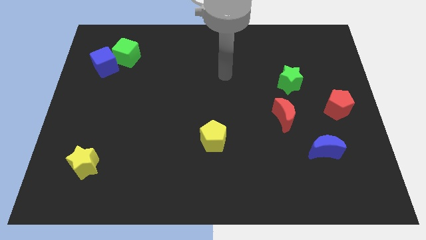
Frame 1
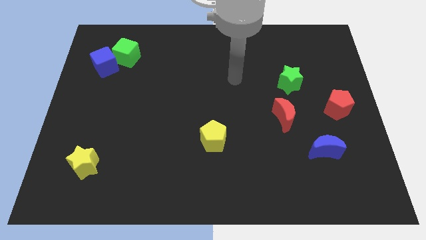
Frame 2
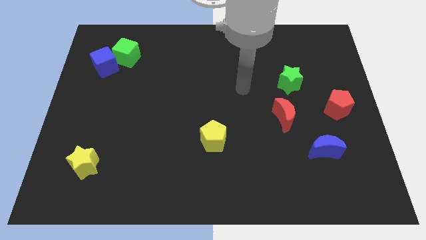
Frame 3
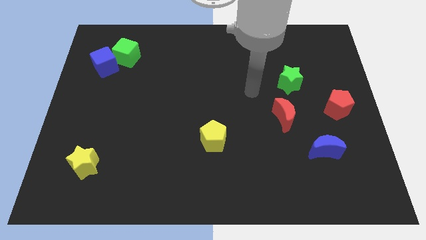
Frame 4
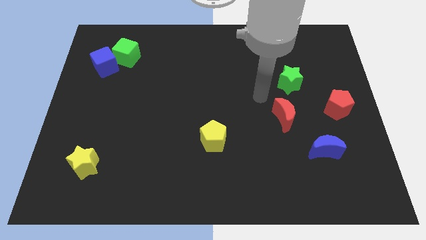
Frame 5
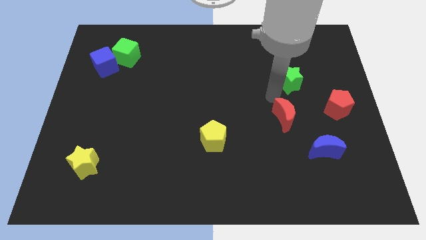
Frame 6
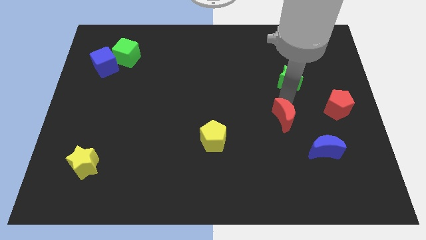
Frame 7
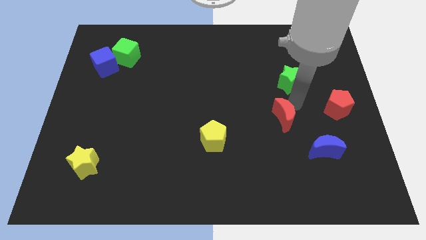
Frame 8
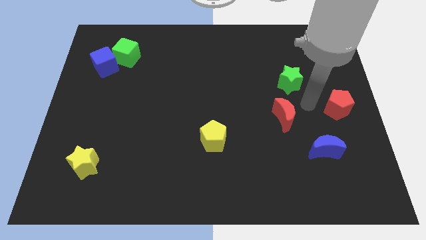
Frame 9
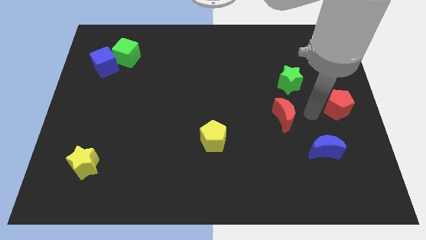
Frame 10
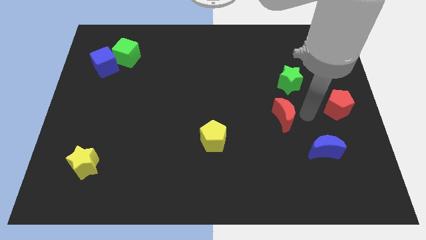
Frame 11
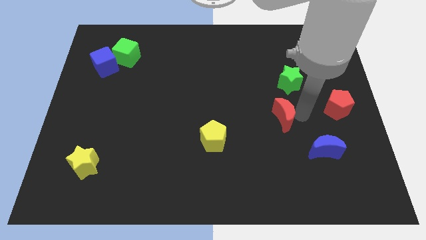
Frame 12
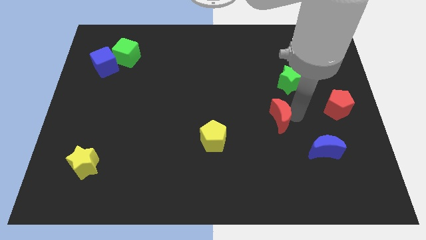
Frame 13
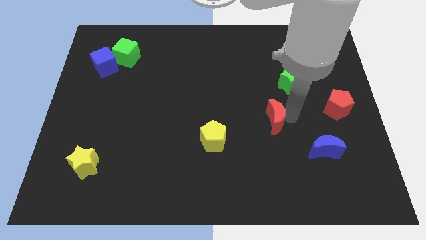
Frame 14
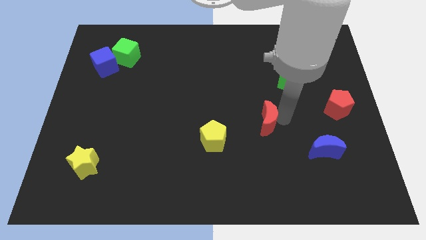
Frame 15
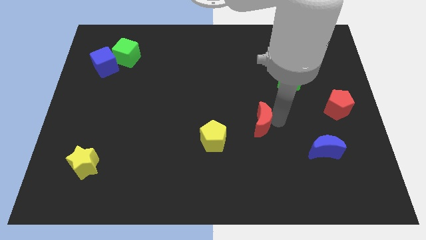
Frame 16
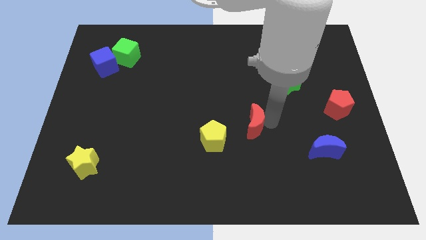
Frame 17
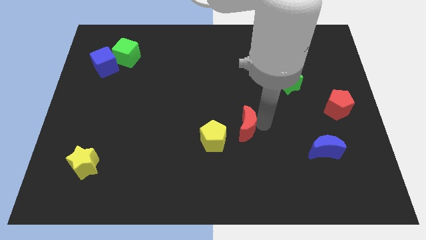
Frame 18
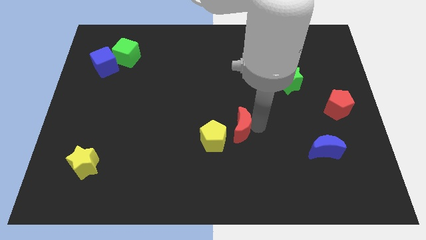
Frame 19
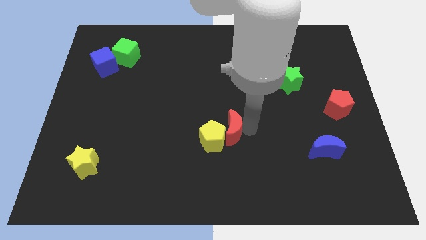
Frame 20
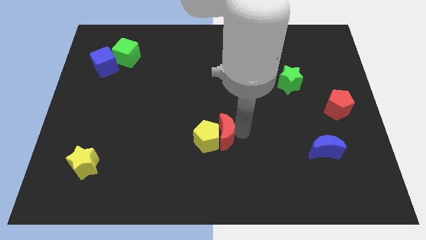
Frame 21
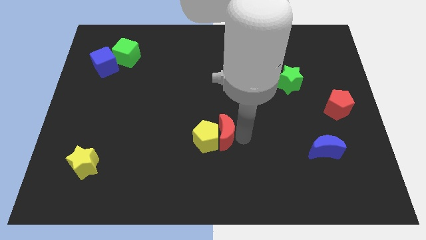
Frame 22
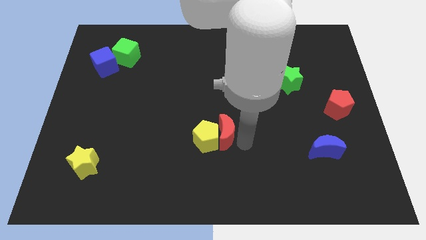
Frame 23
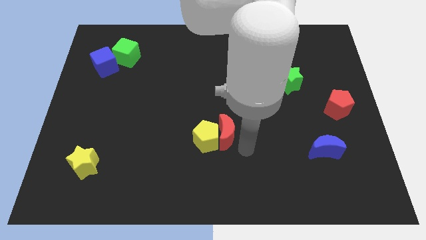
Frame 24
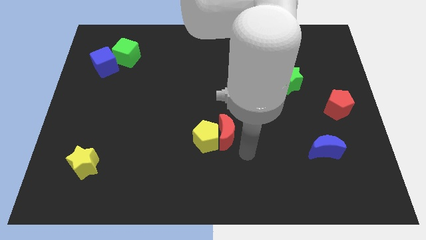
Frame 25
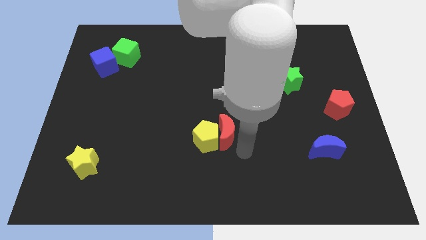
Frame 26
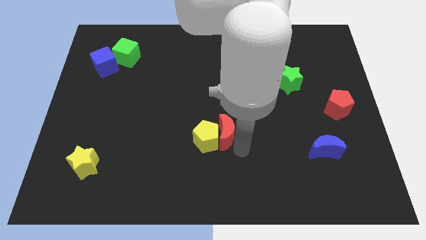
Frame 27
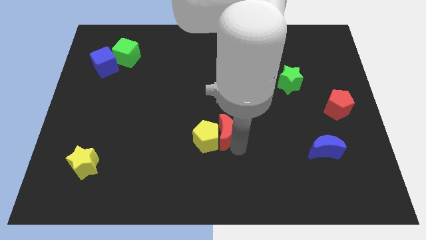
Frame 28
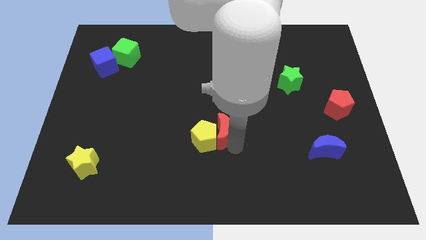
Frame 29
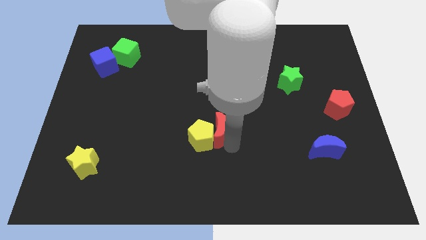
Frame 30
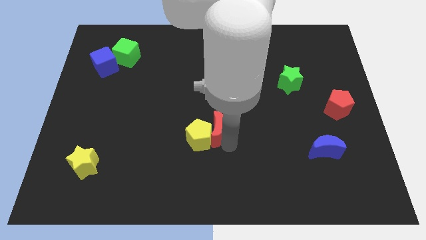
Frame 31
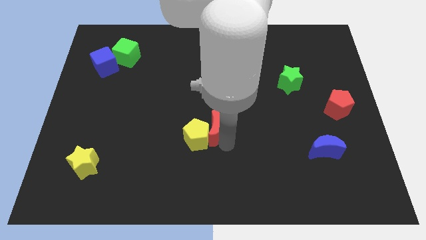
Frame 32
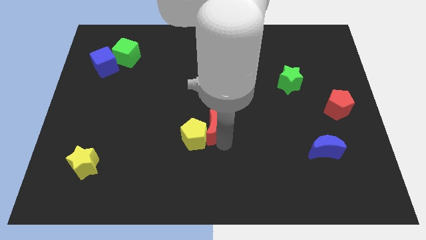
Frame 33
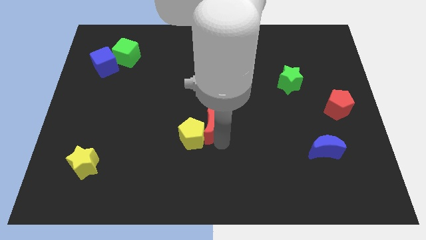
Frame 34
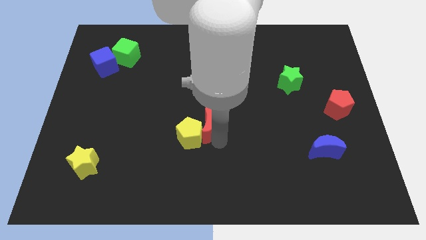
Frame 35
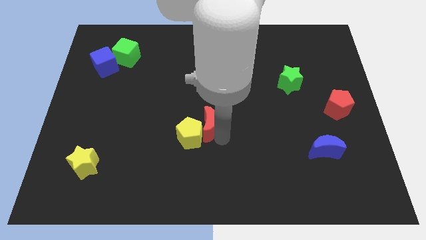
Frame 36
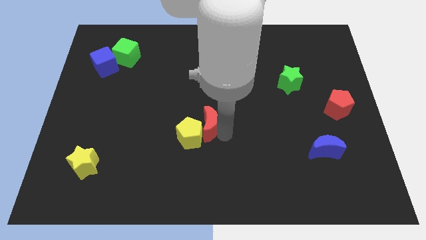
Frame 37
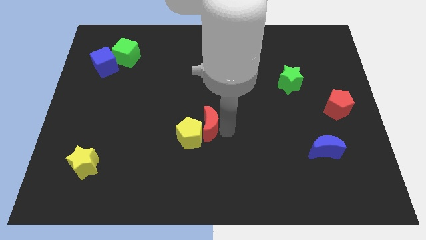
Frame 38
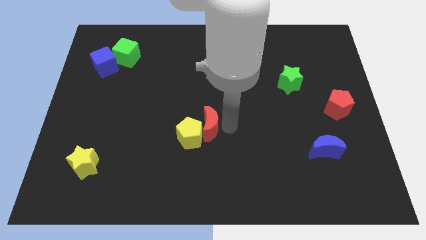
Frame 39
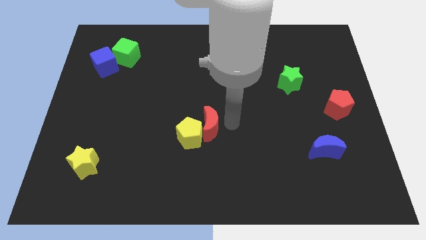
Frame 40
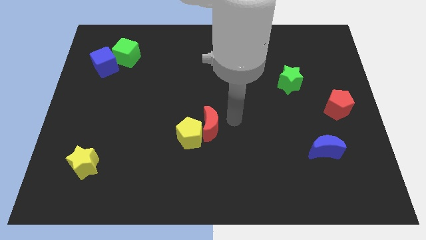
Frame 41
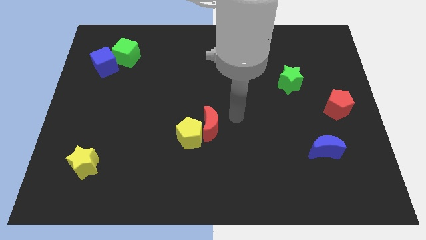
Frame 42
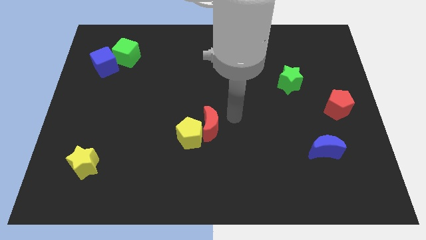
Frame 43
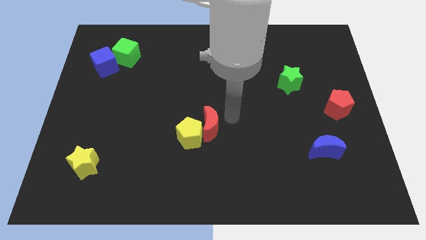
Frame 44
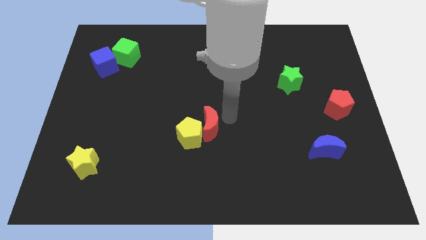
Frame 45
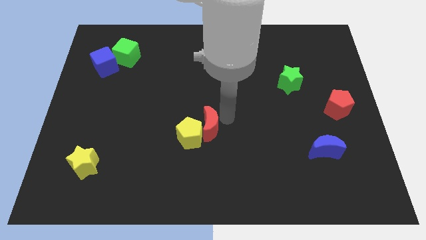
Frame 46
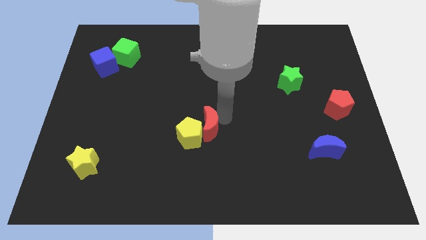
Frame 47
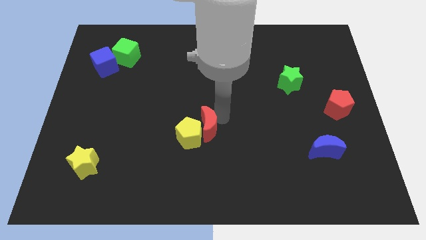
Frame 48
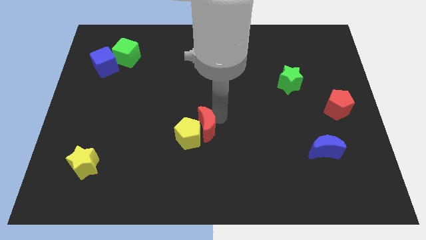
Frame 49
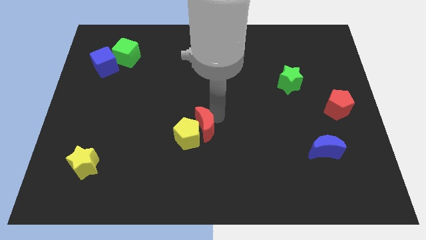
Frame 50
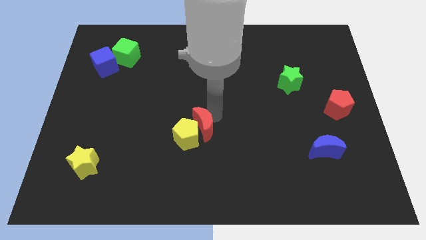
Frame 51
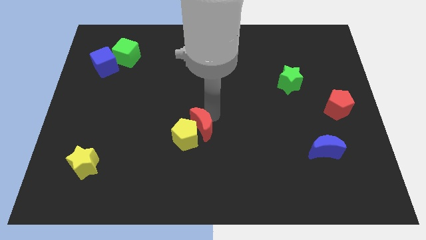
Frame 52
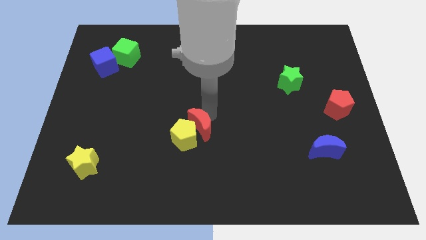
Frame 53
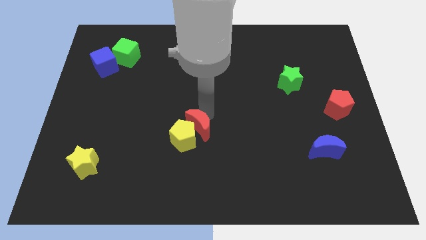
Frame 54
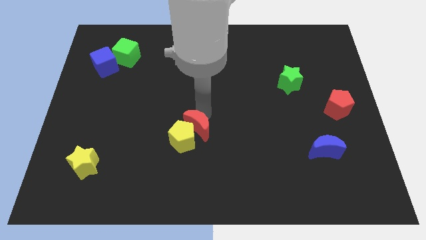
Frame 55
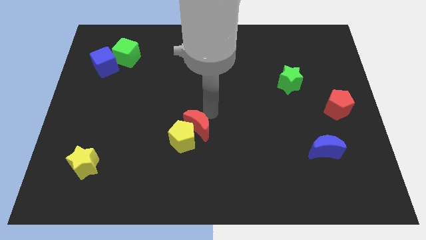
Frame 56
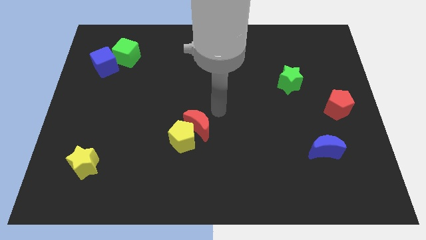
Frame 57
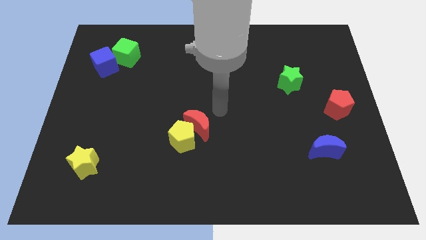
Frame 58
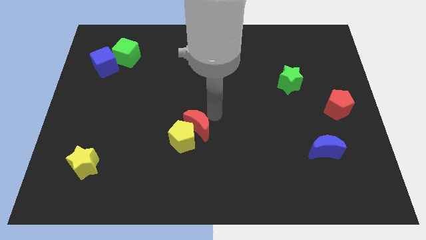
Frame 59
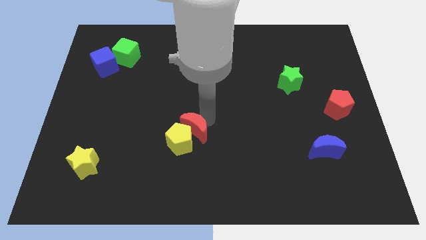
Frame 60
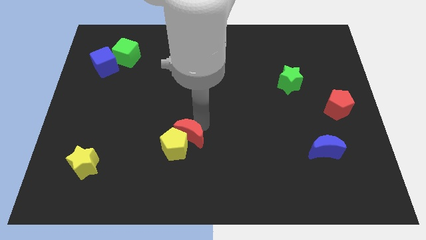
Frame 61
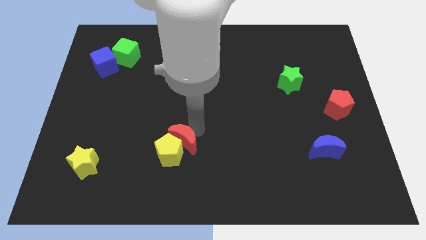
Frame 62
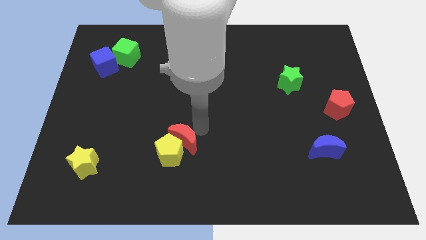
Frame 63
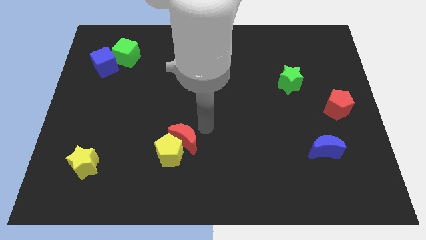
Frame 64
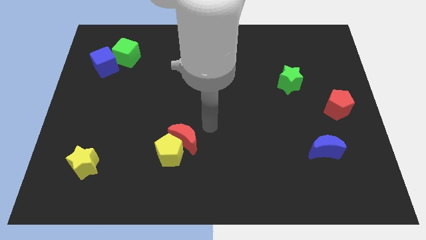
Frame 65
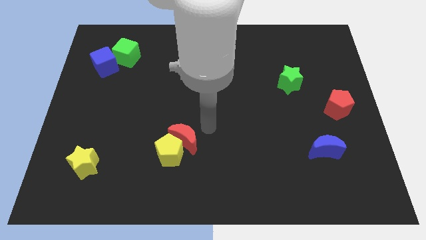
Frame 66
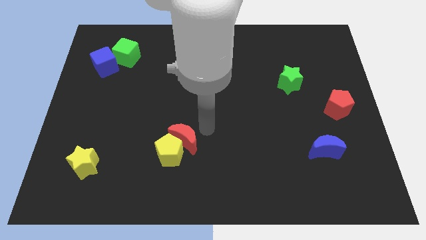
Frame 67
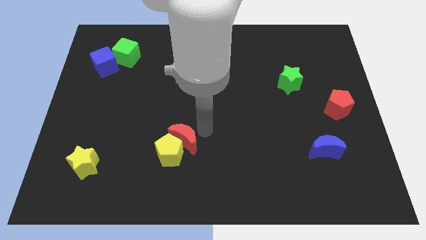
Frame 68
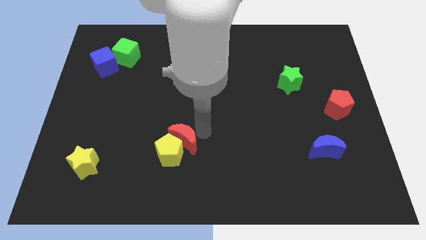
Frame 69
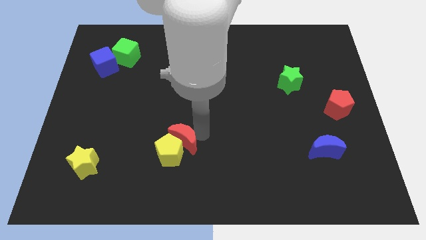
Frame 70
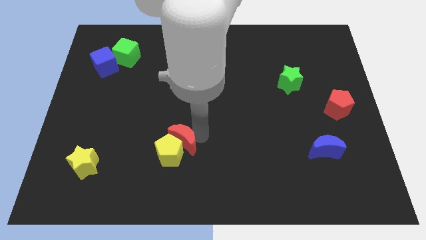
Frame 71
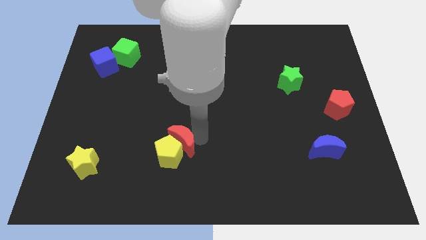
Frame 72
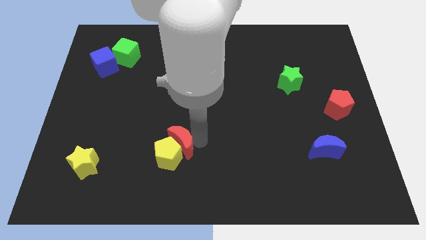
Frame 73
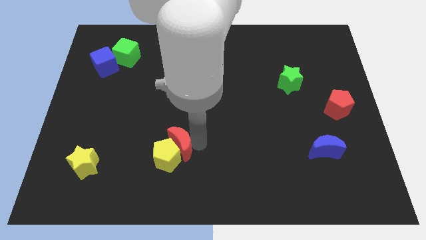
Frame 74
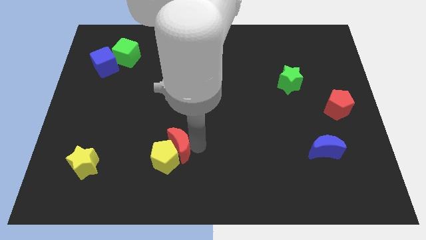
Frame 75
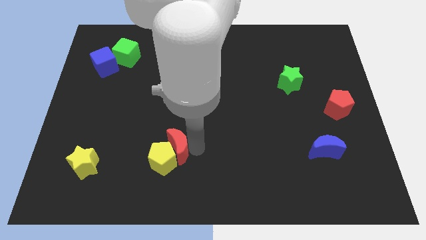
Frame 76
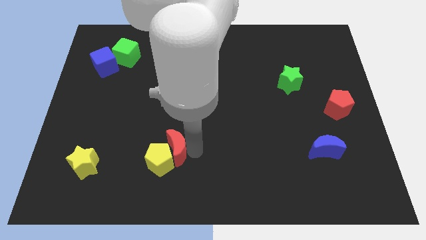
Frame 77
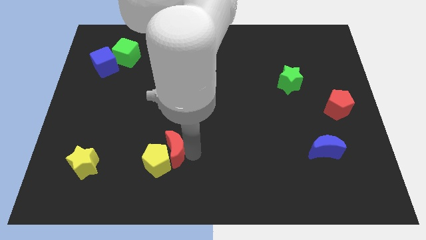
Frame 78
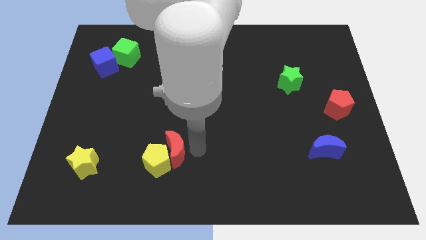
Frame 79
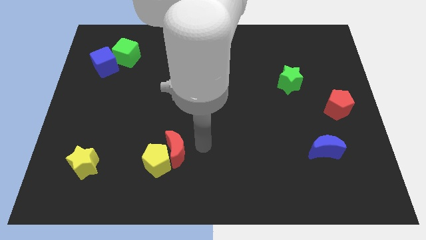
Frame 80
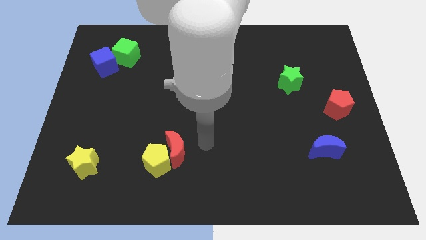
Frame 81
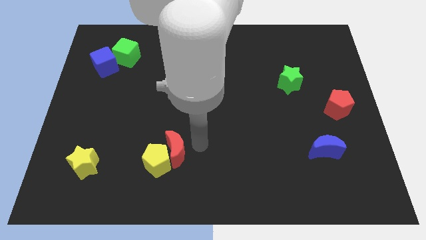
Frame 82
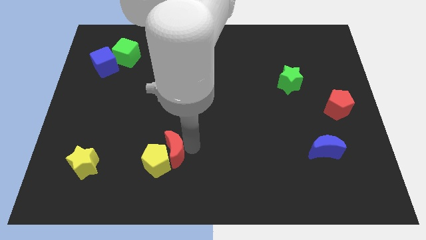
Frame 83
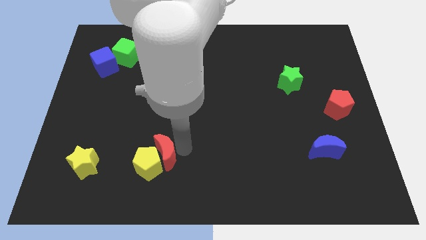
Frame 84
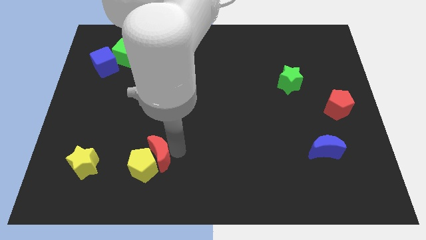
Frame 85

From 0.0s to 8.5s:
move the red moon to the right side of the yellow star
